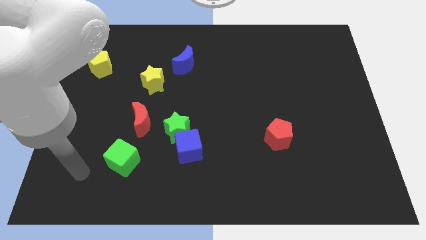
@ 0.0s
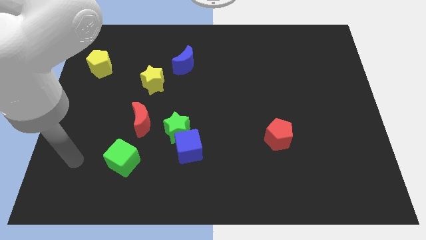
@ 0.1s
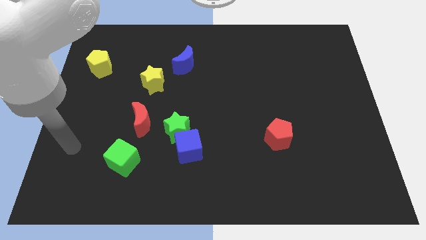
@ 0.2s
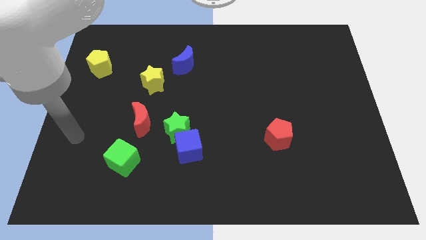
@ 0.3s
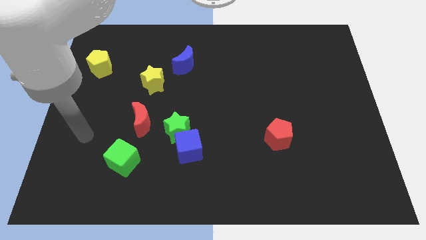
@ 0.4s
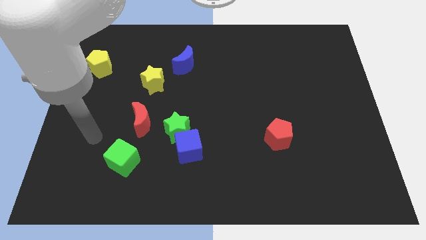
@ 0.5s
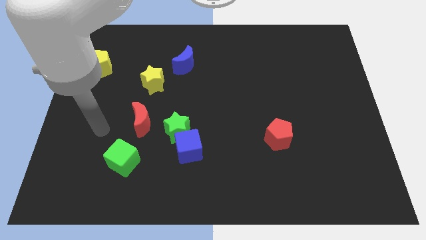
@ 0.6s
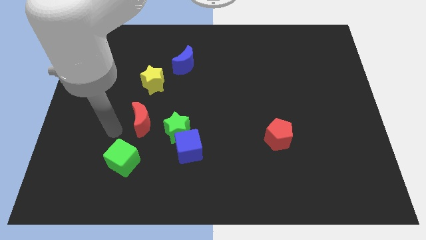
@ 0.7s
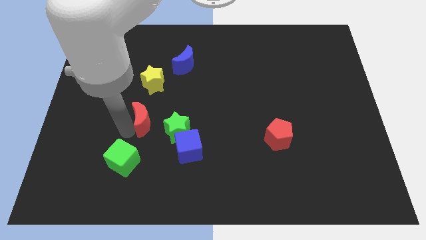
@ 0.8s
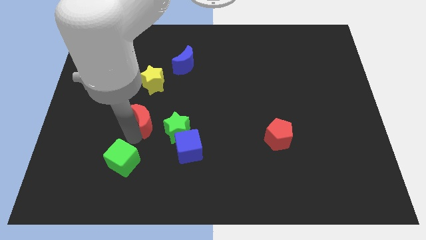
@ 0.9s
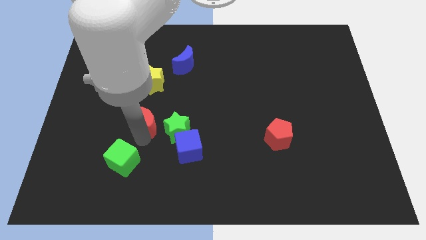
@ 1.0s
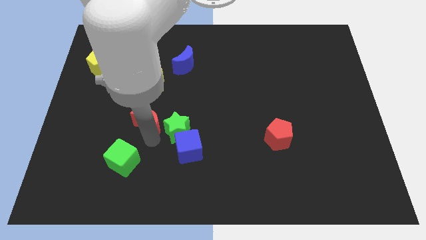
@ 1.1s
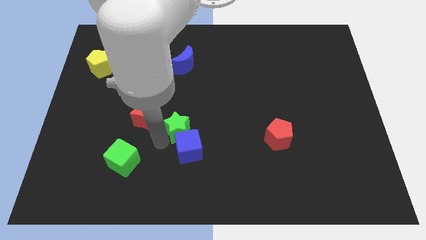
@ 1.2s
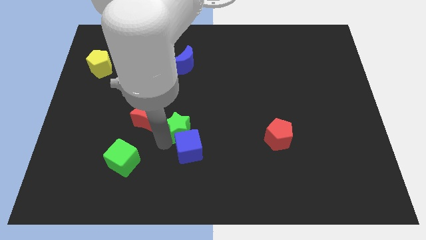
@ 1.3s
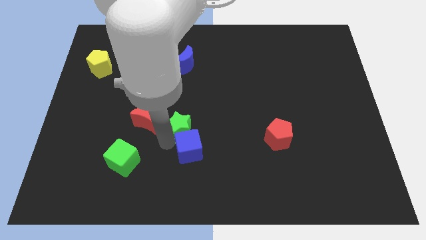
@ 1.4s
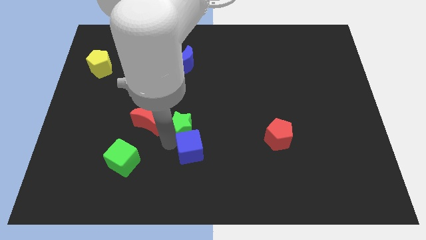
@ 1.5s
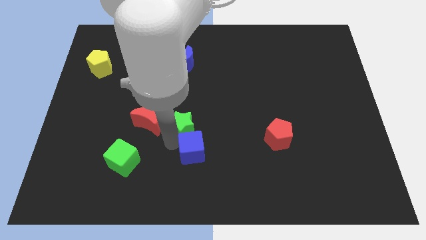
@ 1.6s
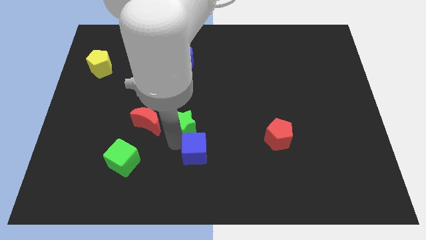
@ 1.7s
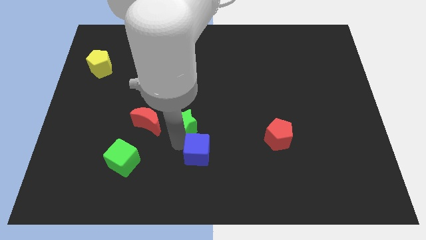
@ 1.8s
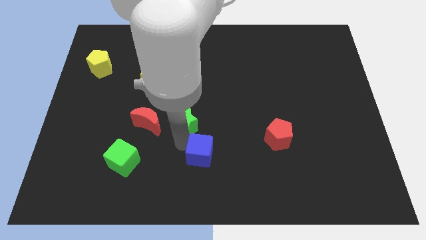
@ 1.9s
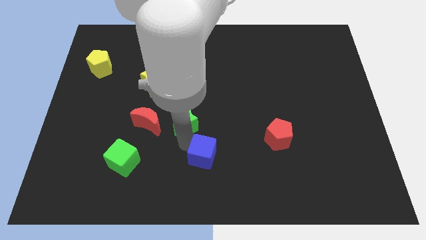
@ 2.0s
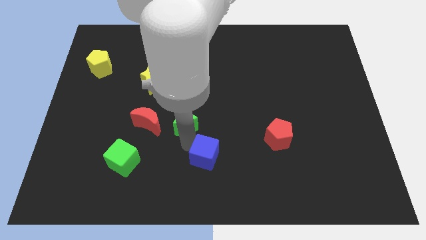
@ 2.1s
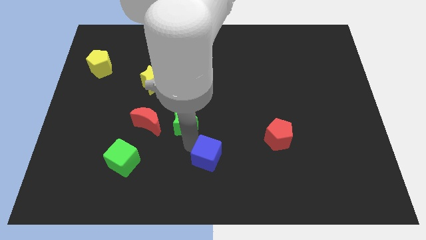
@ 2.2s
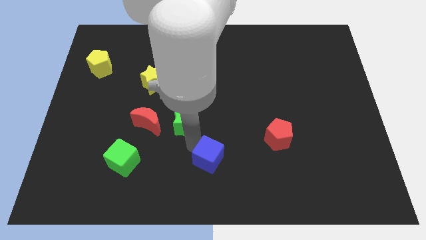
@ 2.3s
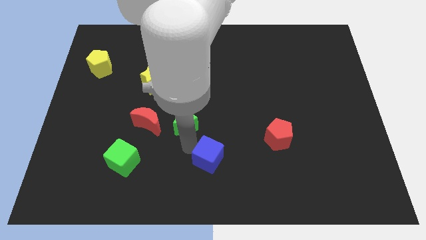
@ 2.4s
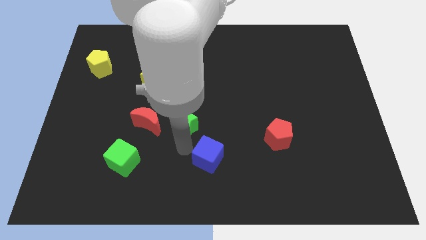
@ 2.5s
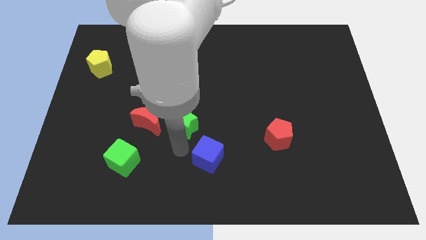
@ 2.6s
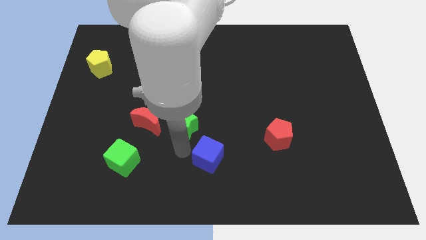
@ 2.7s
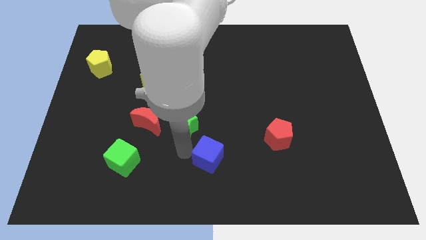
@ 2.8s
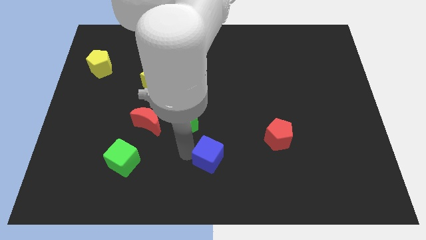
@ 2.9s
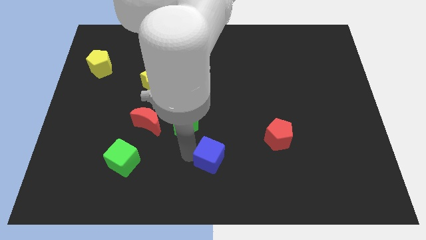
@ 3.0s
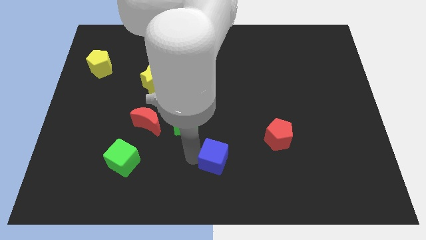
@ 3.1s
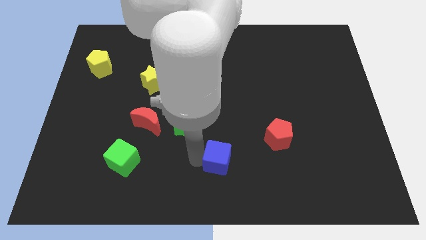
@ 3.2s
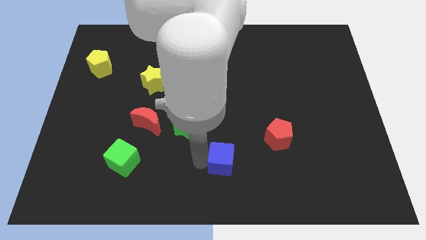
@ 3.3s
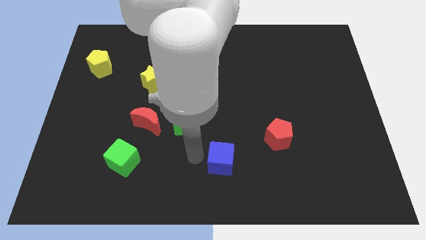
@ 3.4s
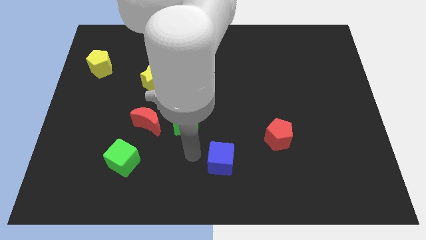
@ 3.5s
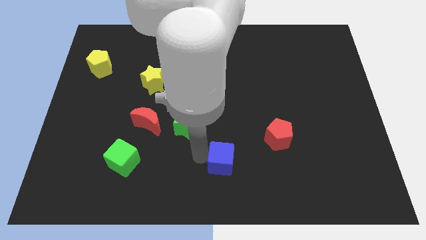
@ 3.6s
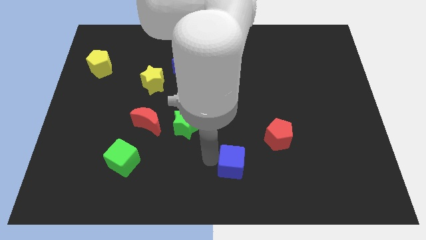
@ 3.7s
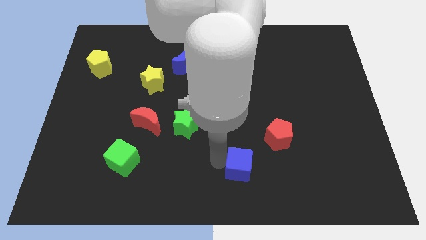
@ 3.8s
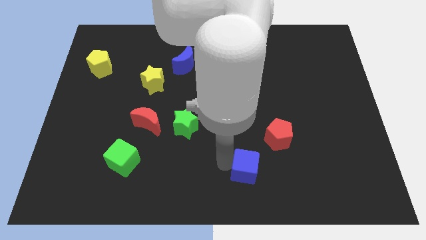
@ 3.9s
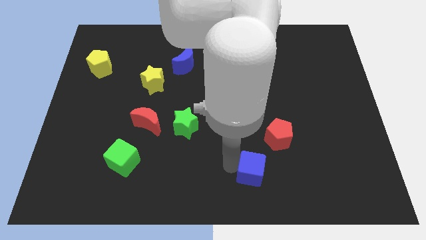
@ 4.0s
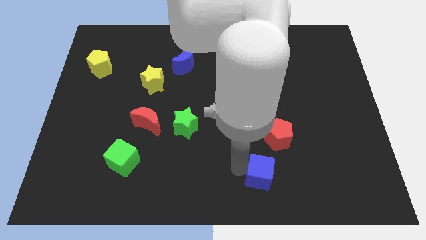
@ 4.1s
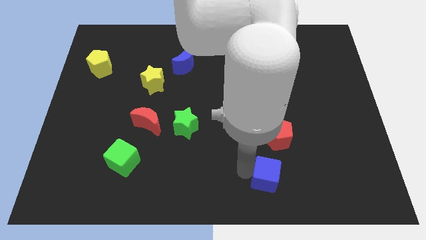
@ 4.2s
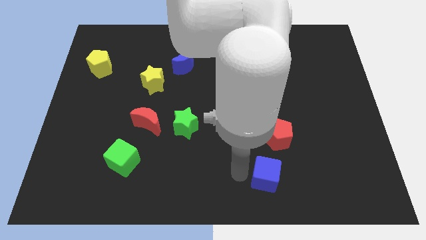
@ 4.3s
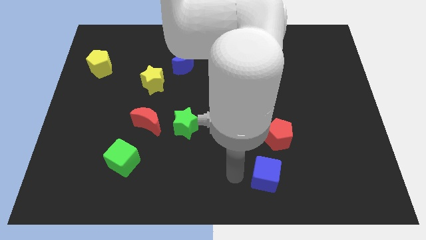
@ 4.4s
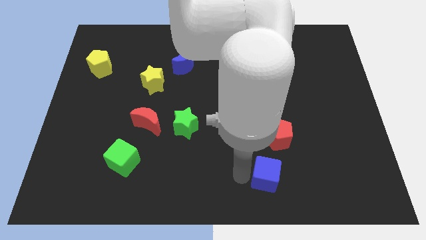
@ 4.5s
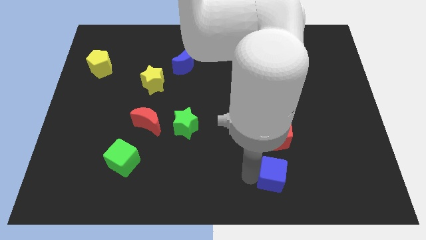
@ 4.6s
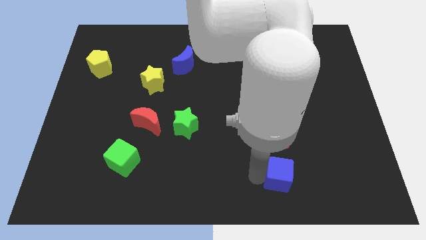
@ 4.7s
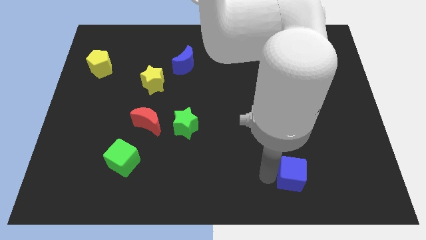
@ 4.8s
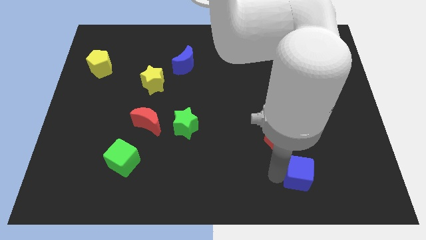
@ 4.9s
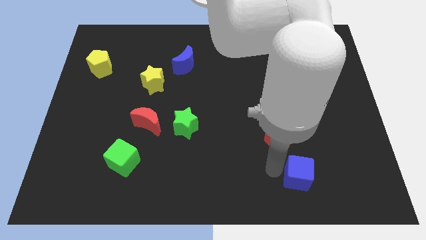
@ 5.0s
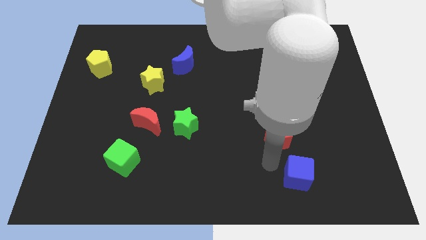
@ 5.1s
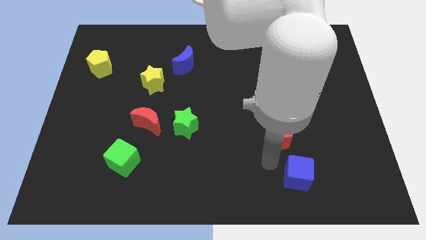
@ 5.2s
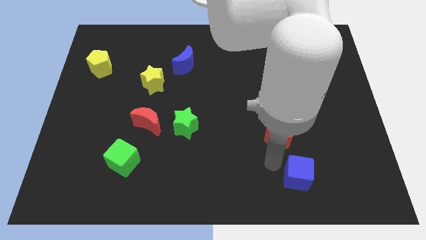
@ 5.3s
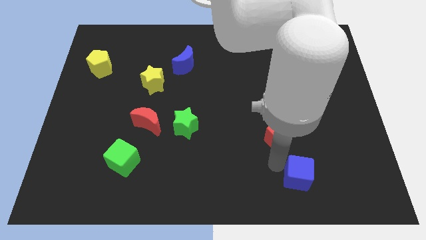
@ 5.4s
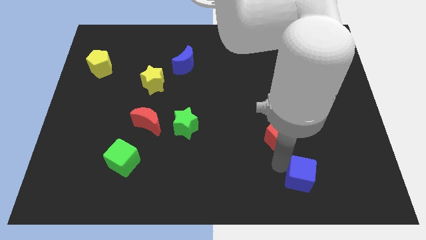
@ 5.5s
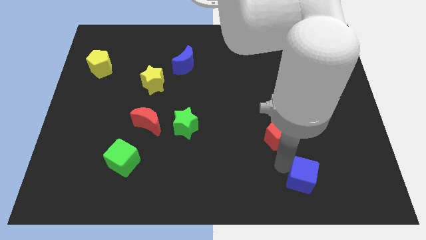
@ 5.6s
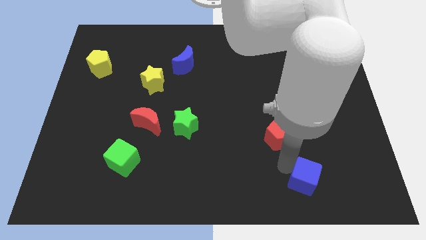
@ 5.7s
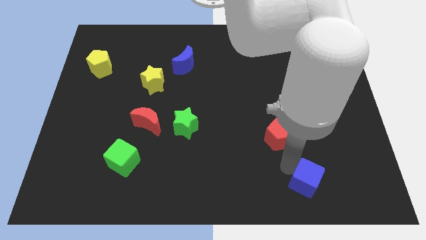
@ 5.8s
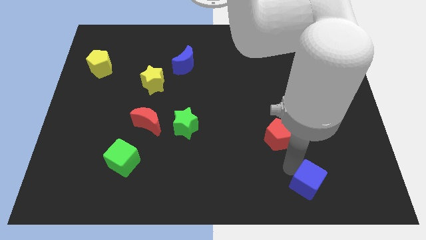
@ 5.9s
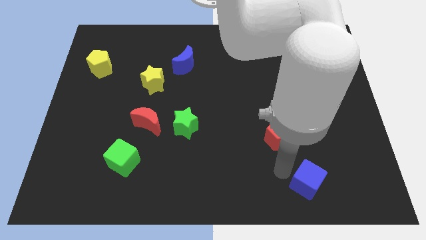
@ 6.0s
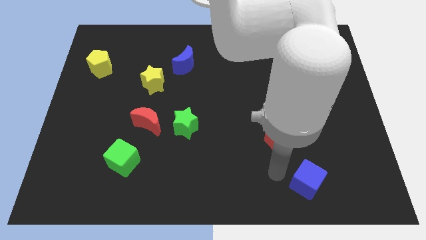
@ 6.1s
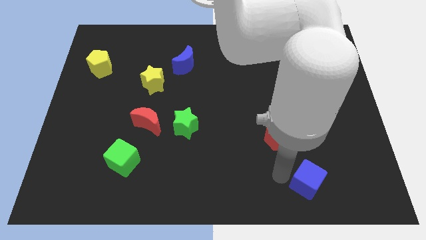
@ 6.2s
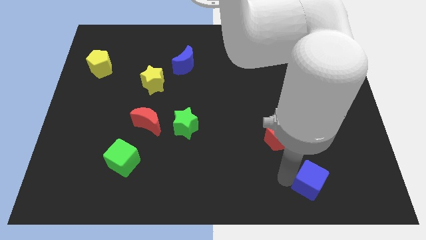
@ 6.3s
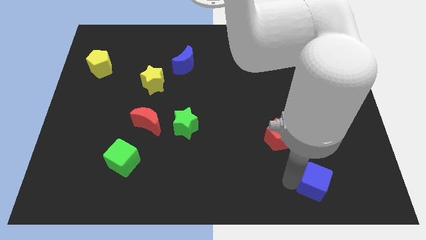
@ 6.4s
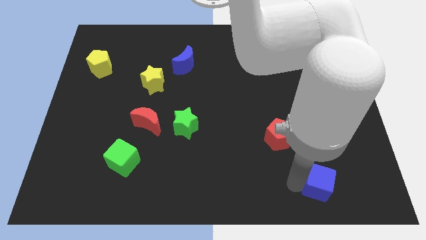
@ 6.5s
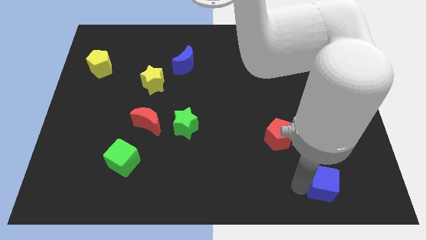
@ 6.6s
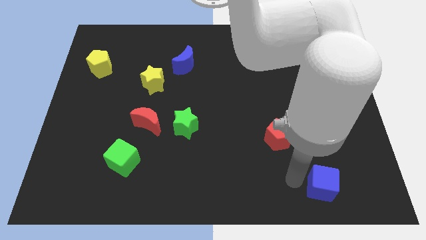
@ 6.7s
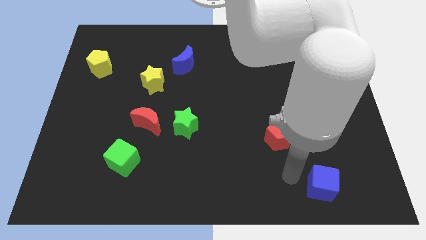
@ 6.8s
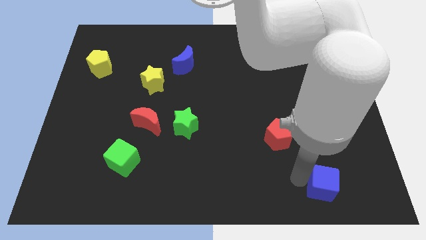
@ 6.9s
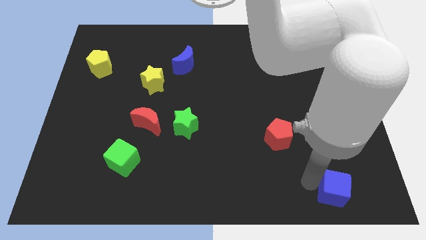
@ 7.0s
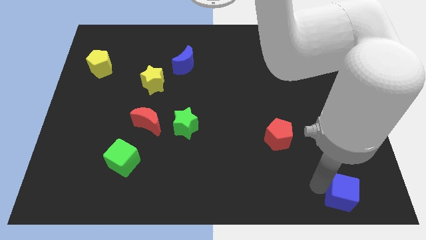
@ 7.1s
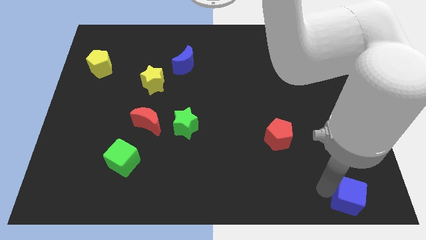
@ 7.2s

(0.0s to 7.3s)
put the blue cube to the lower right corner
